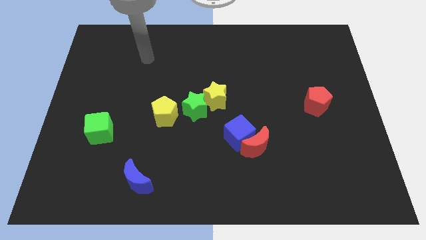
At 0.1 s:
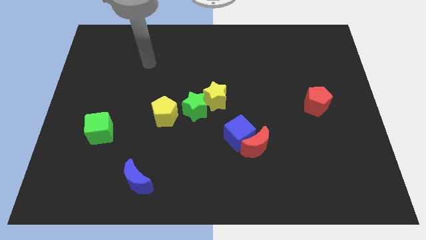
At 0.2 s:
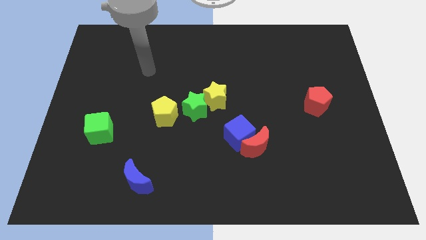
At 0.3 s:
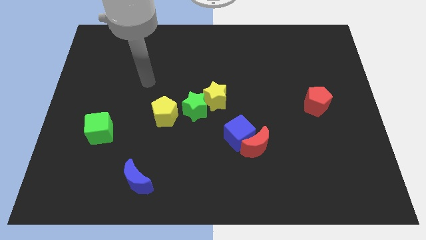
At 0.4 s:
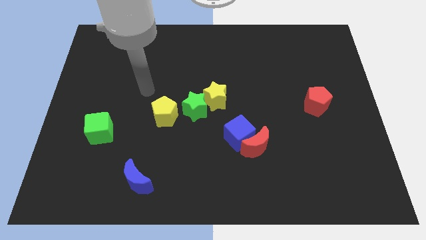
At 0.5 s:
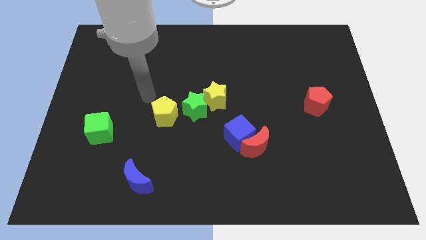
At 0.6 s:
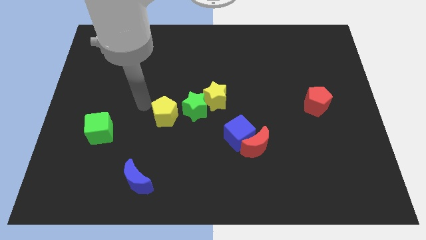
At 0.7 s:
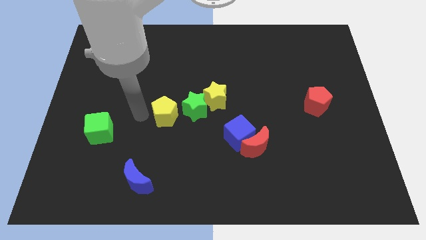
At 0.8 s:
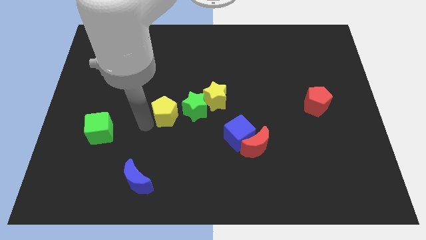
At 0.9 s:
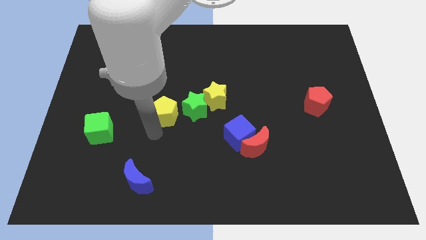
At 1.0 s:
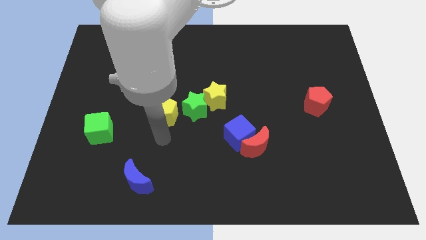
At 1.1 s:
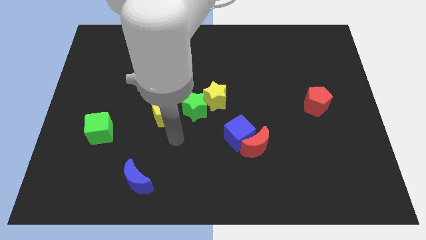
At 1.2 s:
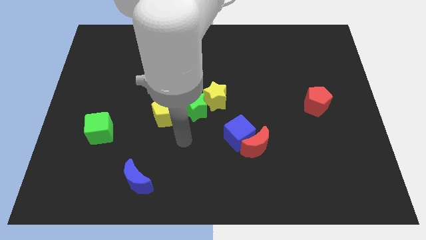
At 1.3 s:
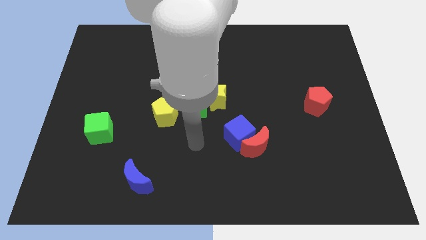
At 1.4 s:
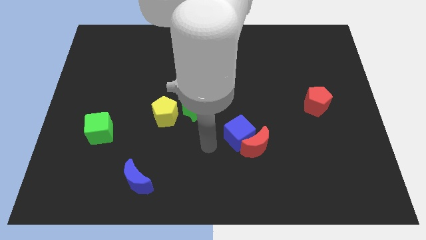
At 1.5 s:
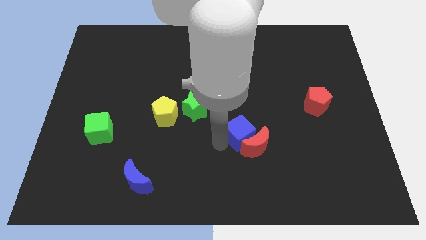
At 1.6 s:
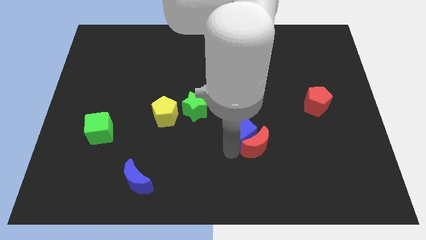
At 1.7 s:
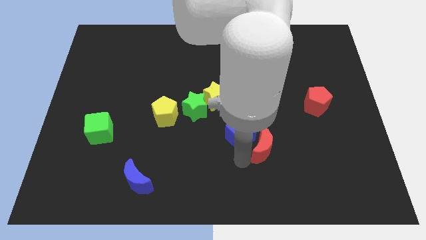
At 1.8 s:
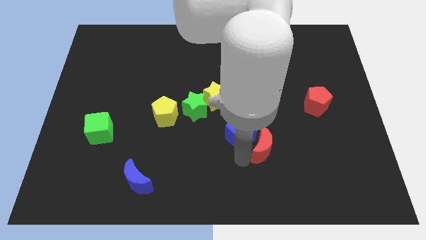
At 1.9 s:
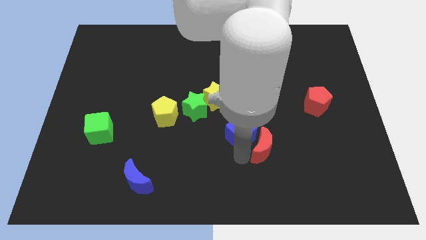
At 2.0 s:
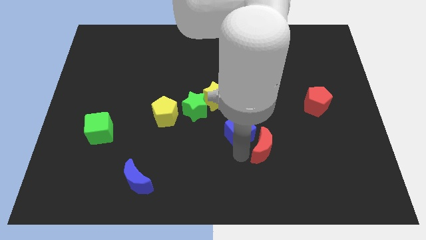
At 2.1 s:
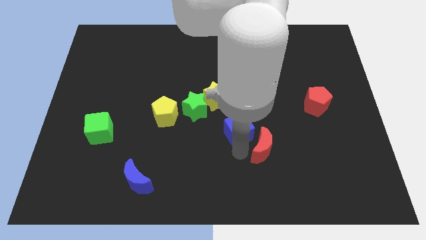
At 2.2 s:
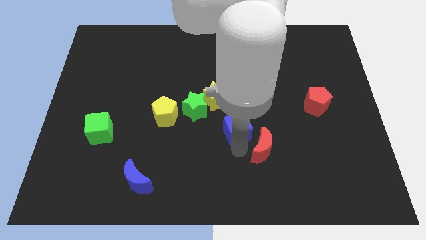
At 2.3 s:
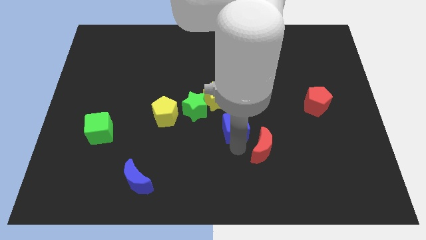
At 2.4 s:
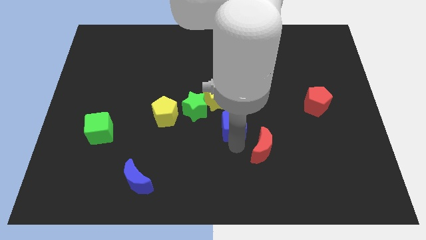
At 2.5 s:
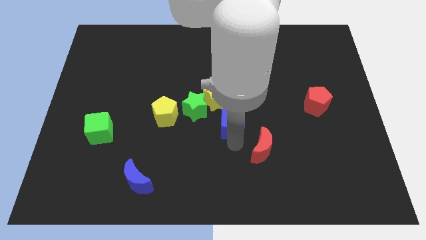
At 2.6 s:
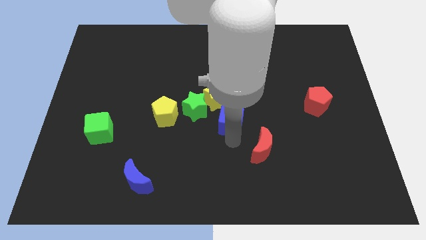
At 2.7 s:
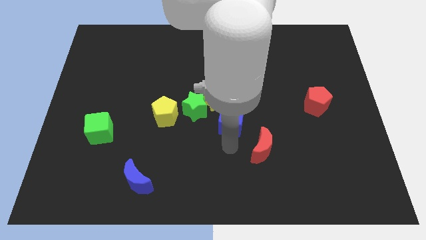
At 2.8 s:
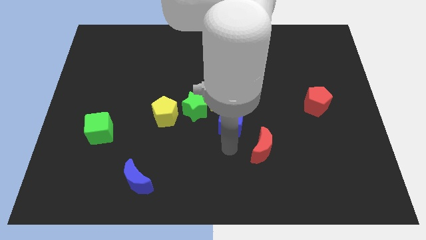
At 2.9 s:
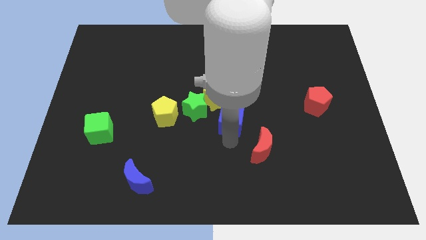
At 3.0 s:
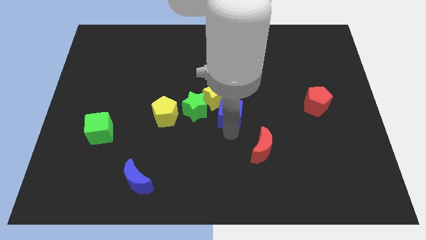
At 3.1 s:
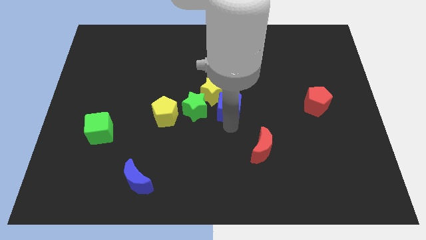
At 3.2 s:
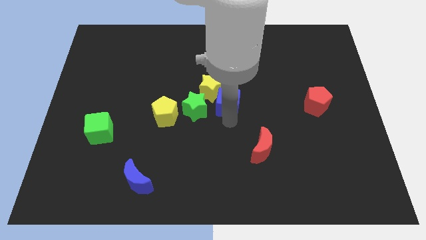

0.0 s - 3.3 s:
push the blue cube upwards and to the left diagonally a bit

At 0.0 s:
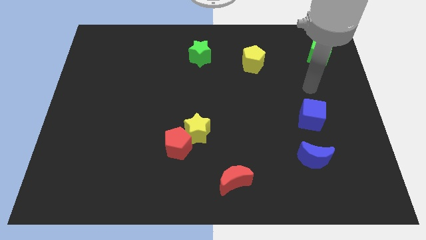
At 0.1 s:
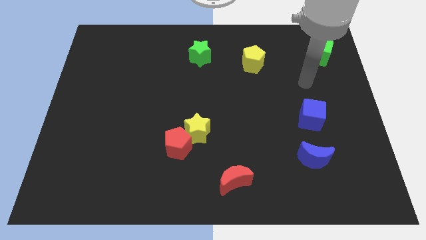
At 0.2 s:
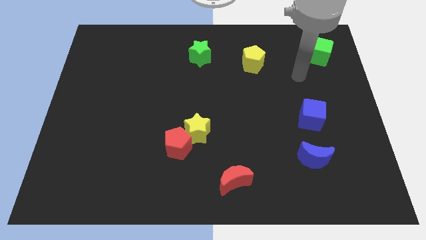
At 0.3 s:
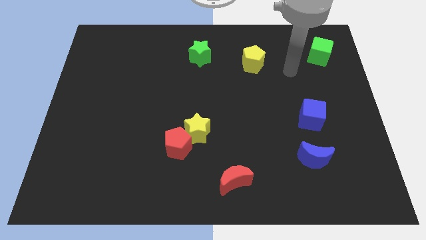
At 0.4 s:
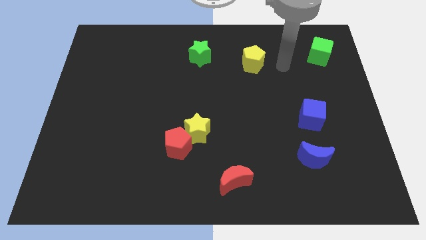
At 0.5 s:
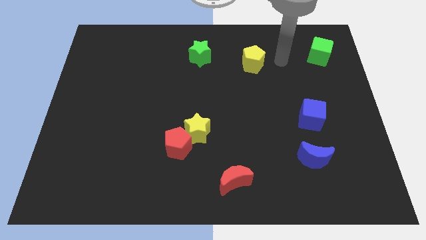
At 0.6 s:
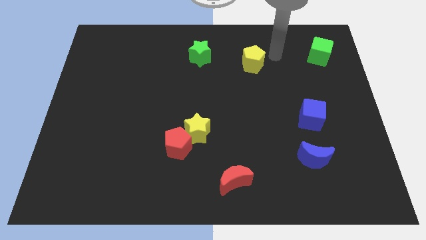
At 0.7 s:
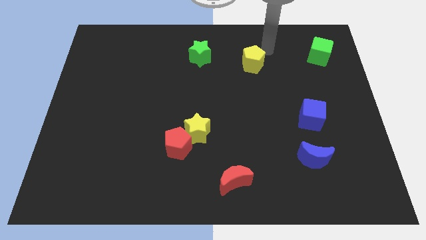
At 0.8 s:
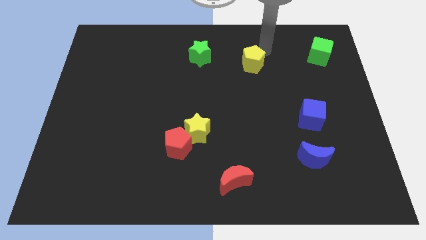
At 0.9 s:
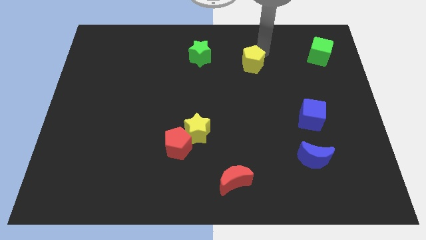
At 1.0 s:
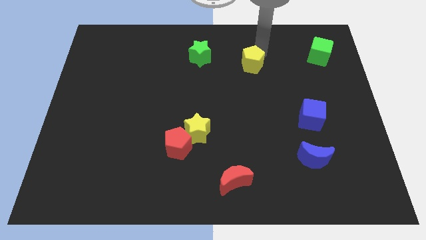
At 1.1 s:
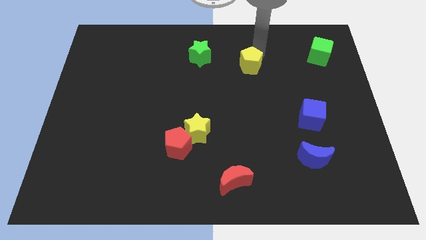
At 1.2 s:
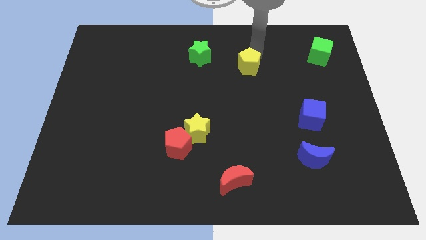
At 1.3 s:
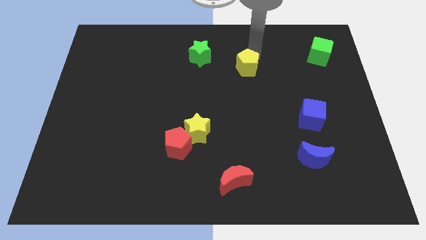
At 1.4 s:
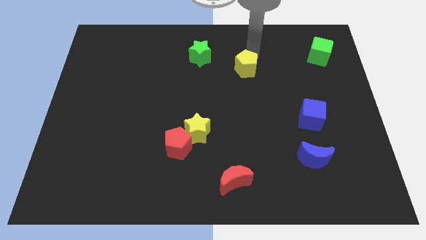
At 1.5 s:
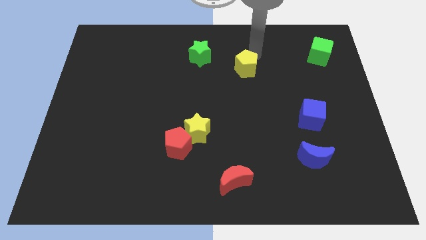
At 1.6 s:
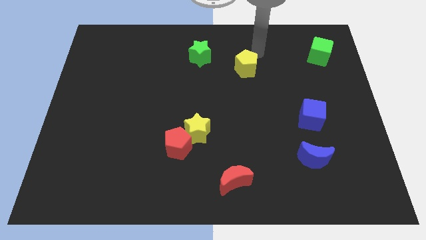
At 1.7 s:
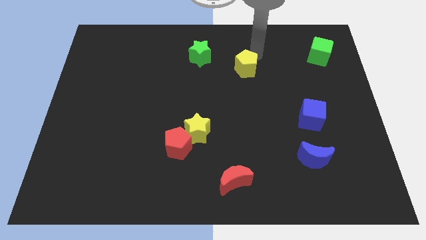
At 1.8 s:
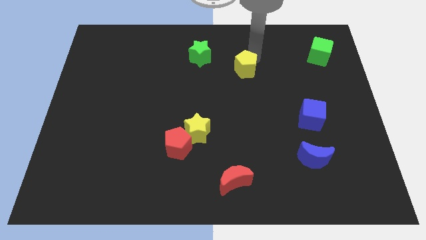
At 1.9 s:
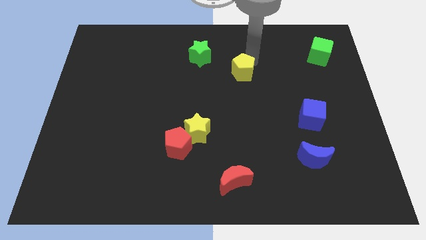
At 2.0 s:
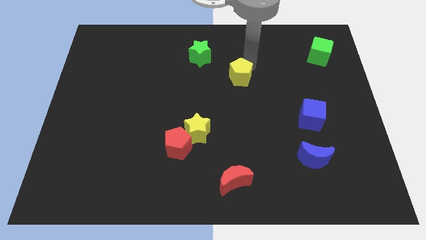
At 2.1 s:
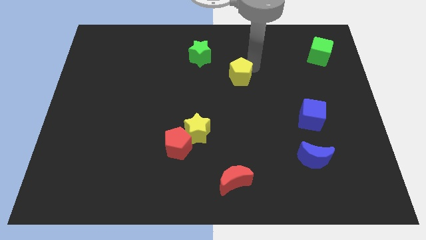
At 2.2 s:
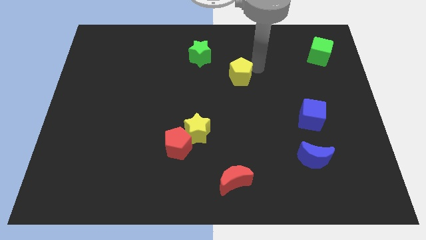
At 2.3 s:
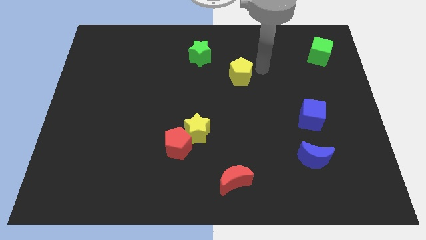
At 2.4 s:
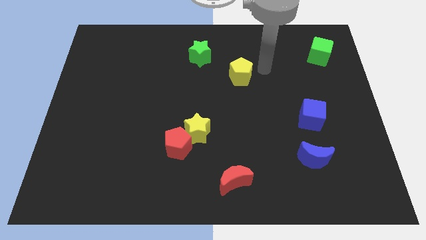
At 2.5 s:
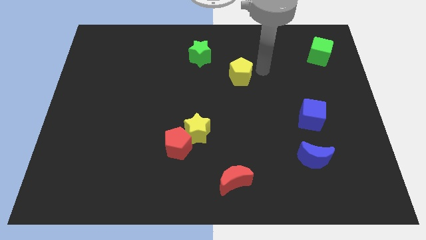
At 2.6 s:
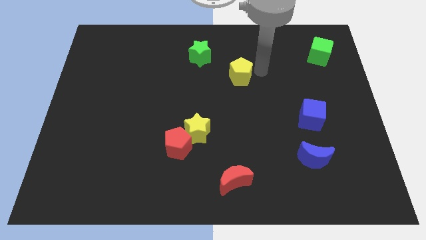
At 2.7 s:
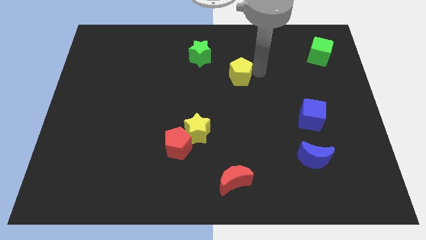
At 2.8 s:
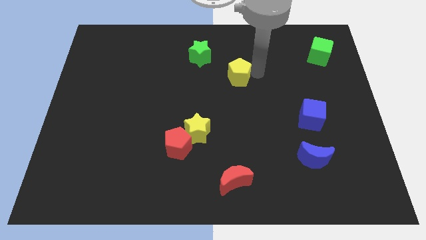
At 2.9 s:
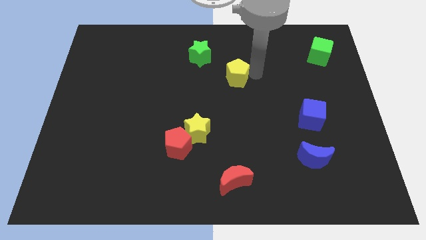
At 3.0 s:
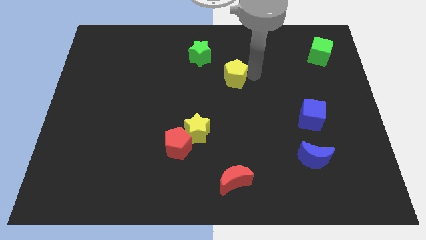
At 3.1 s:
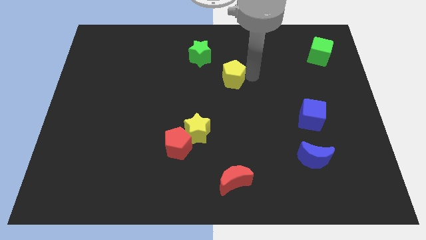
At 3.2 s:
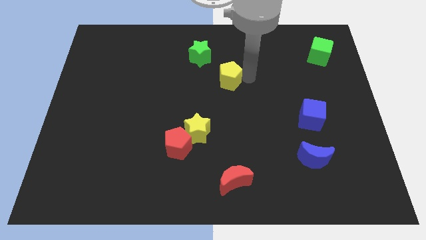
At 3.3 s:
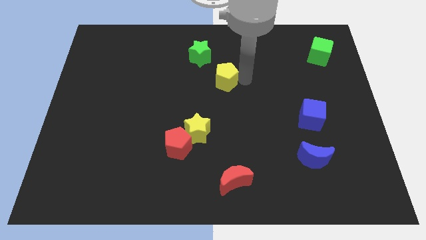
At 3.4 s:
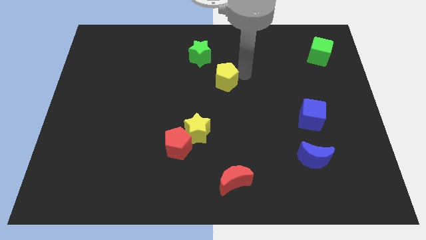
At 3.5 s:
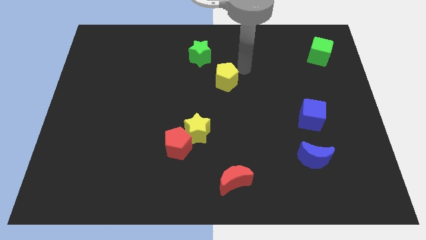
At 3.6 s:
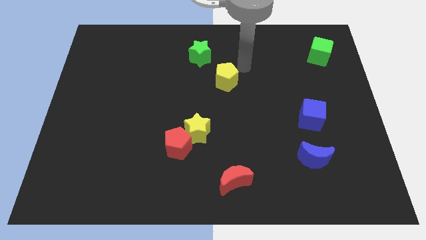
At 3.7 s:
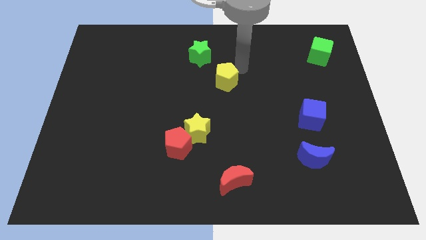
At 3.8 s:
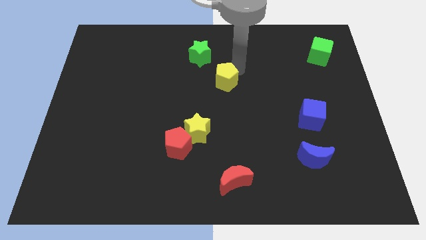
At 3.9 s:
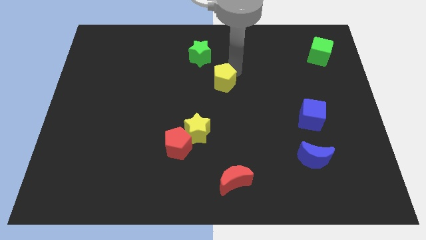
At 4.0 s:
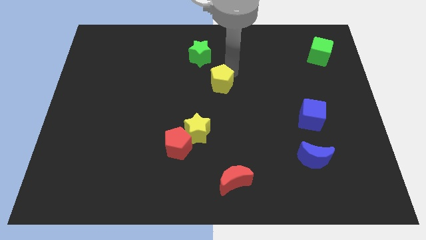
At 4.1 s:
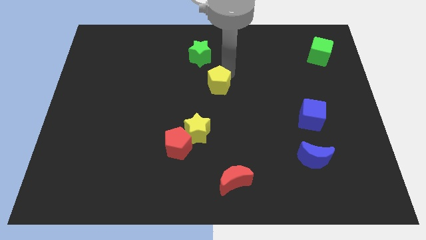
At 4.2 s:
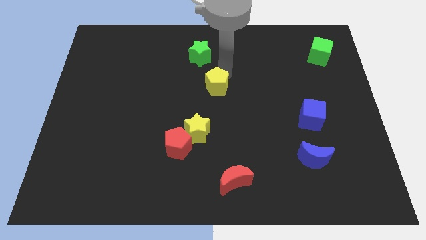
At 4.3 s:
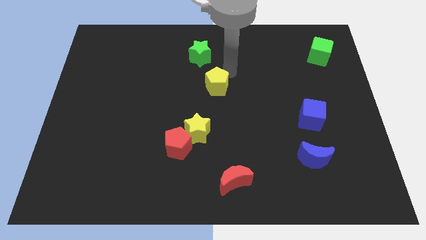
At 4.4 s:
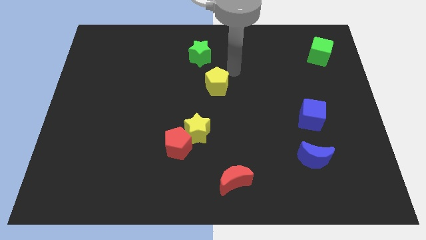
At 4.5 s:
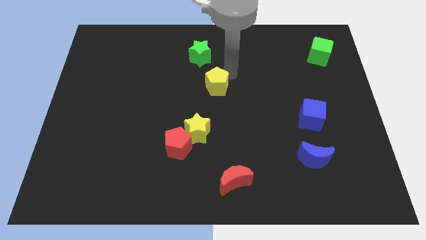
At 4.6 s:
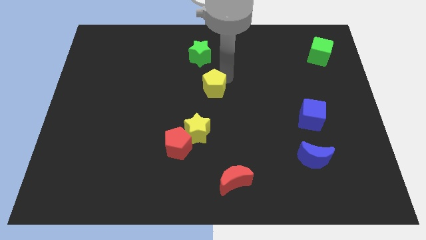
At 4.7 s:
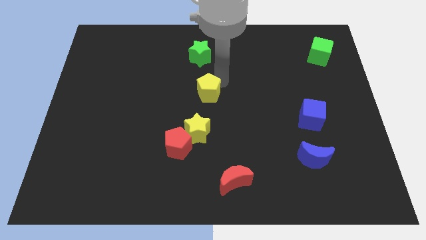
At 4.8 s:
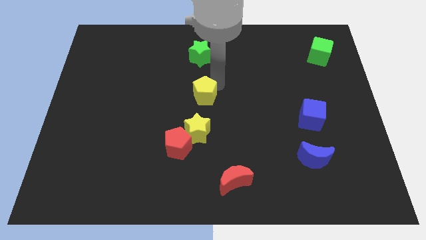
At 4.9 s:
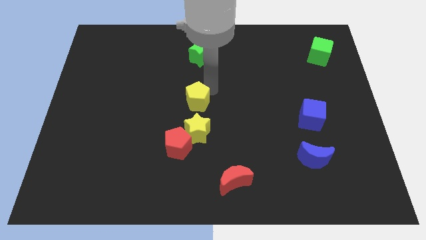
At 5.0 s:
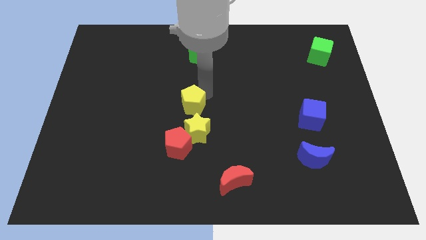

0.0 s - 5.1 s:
slide the yellow pentagon down and left

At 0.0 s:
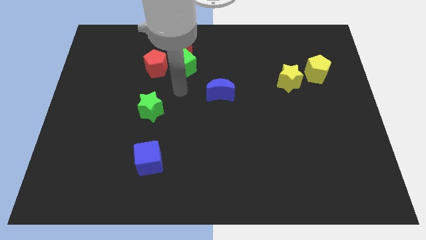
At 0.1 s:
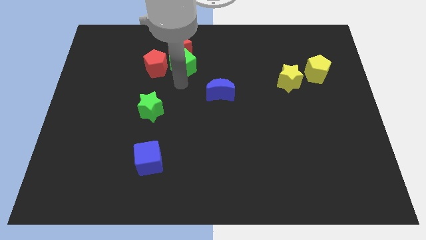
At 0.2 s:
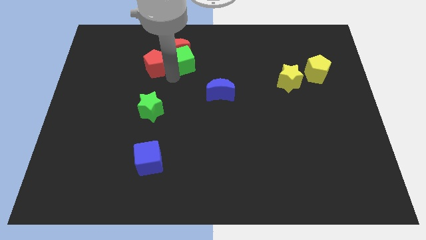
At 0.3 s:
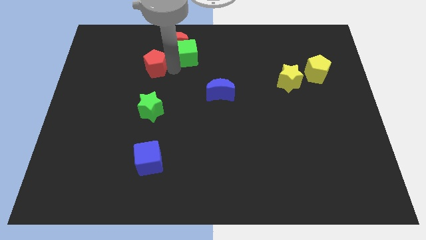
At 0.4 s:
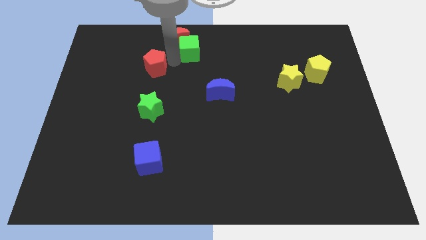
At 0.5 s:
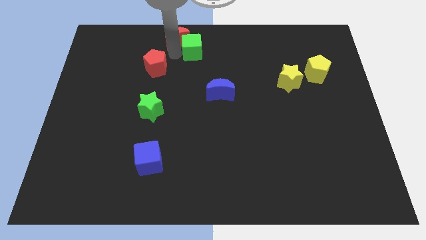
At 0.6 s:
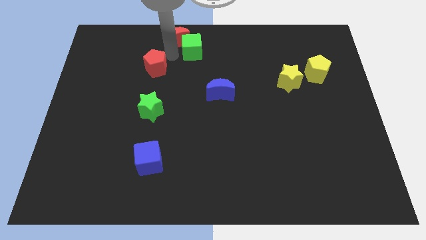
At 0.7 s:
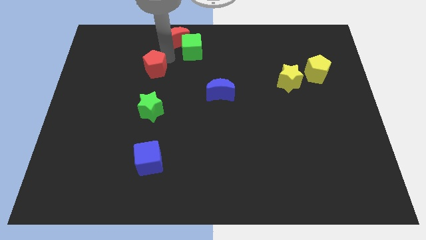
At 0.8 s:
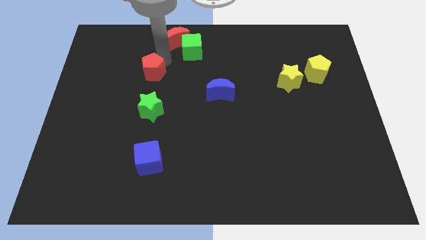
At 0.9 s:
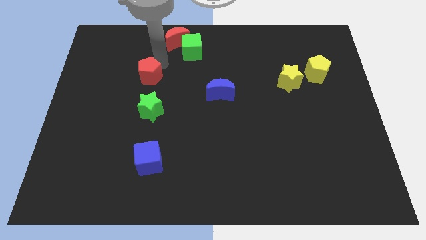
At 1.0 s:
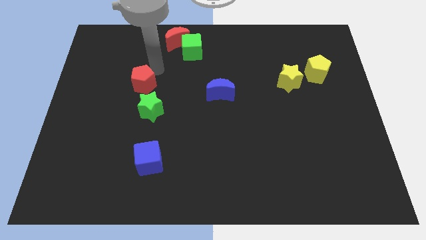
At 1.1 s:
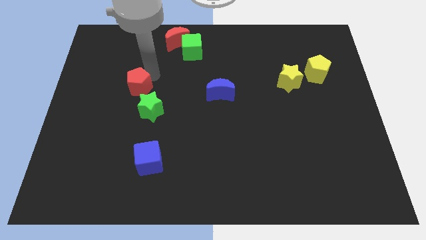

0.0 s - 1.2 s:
slightly slide the red pentagon down and then to the left
